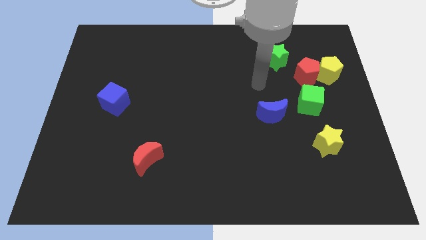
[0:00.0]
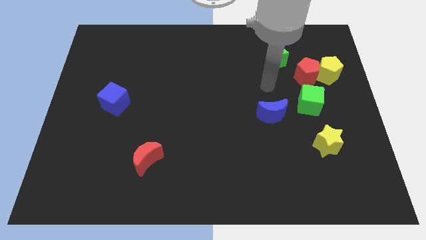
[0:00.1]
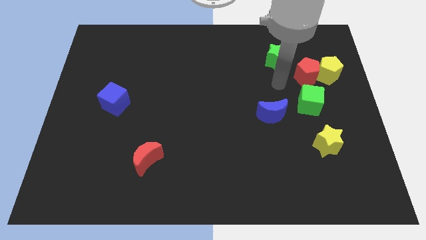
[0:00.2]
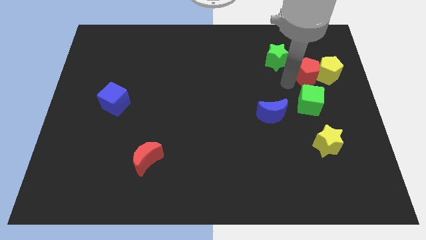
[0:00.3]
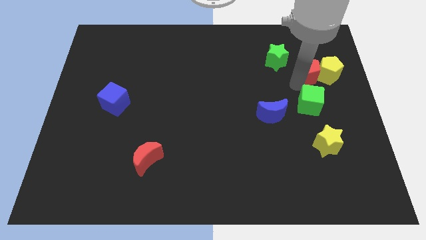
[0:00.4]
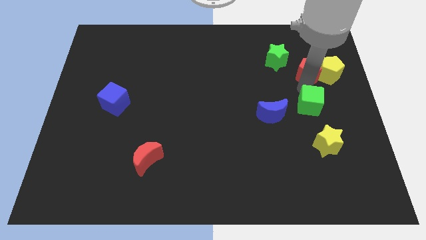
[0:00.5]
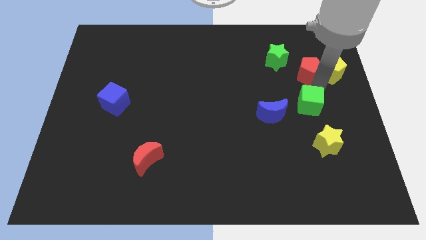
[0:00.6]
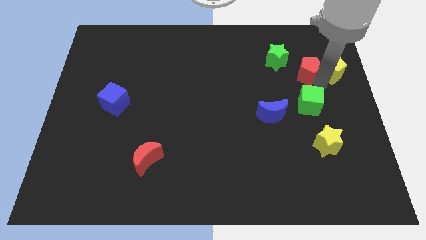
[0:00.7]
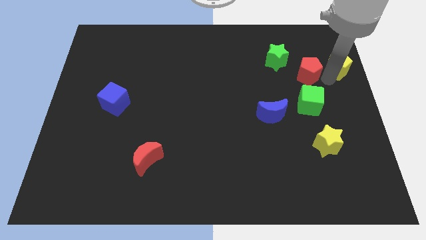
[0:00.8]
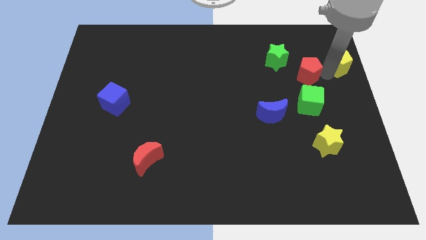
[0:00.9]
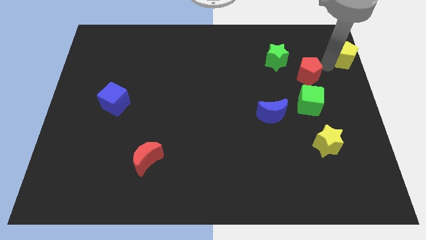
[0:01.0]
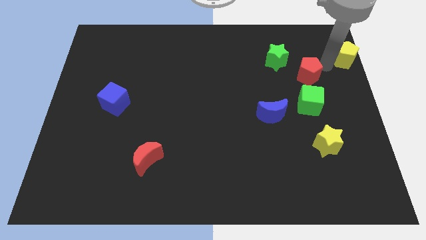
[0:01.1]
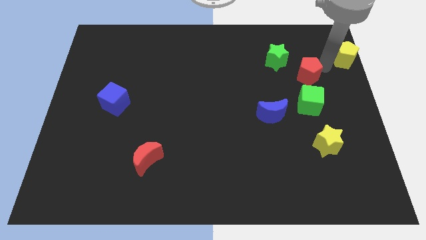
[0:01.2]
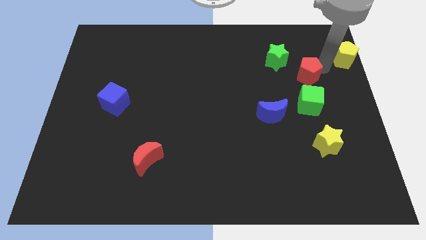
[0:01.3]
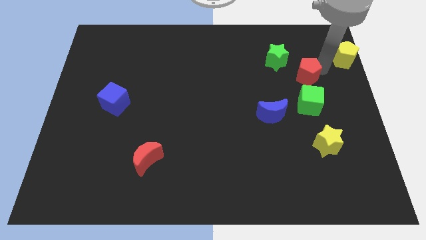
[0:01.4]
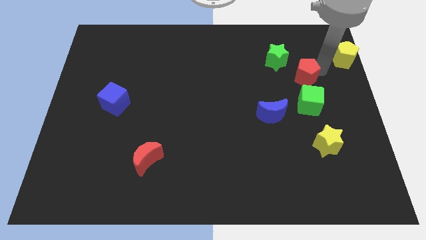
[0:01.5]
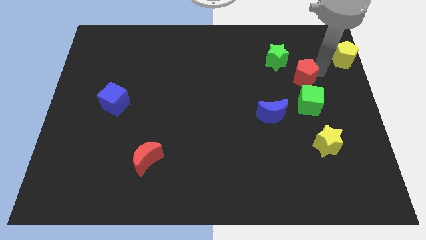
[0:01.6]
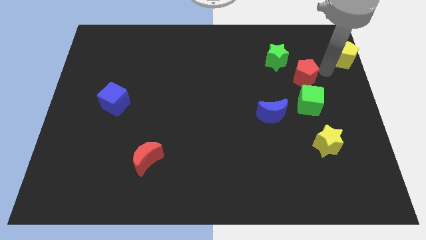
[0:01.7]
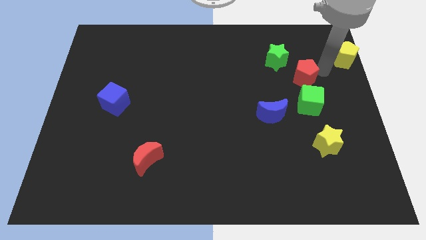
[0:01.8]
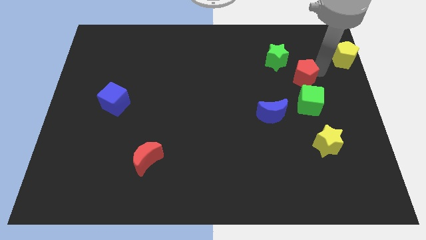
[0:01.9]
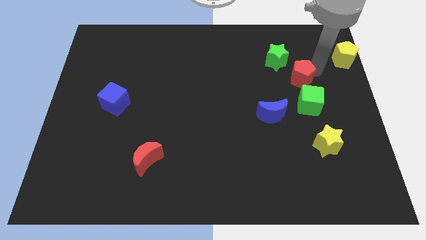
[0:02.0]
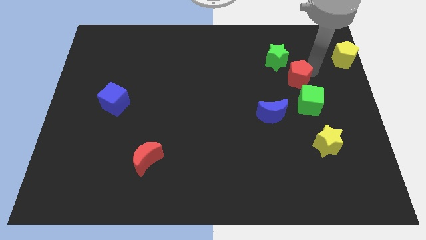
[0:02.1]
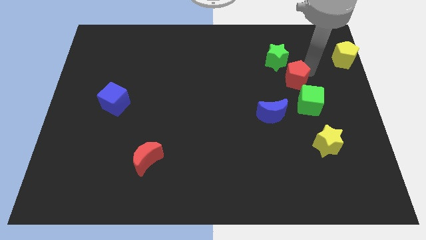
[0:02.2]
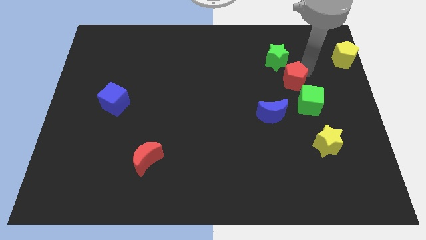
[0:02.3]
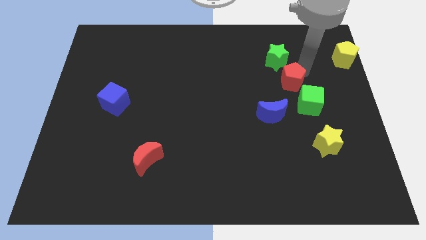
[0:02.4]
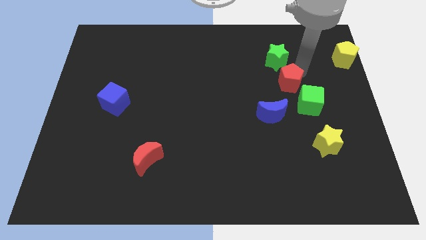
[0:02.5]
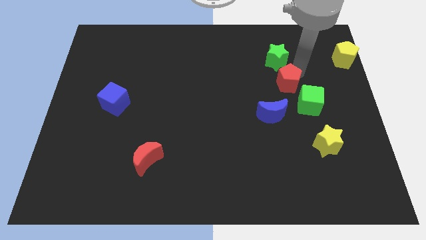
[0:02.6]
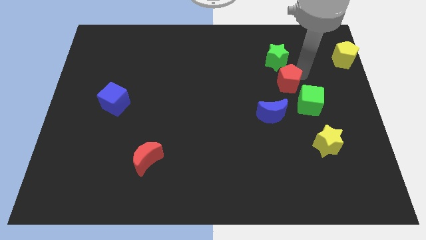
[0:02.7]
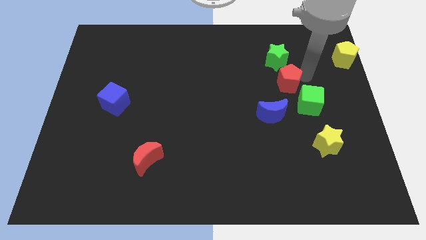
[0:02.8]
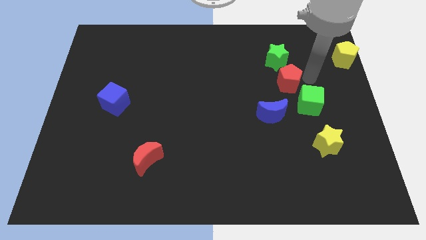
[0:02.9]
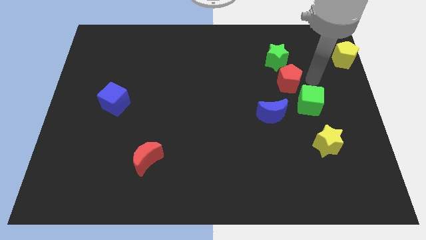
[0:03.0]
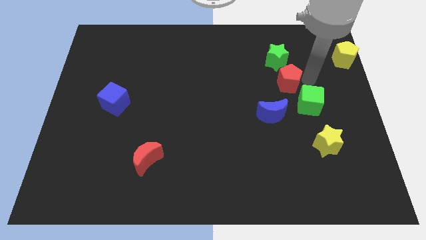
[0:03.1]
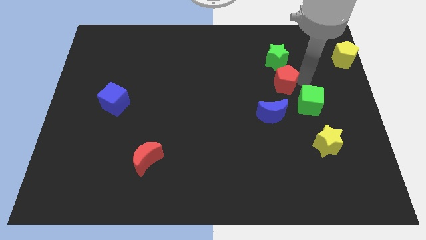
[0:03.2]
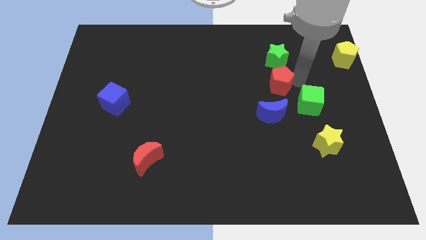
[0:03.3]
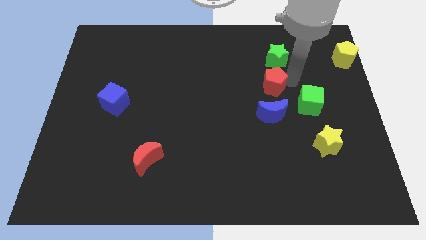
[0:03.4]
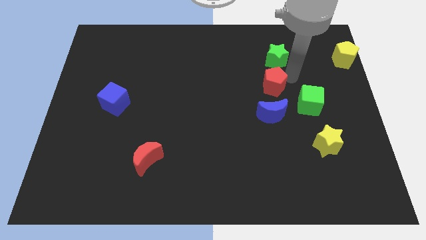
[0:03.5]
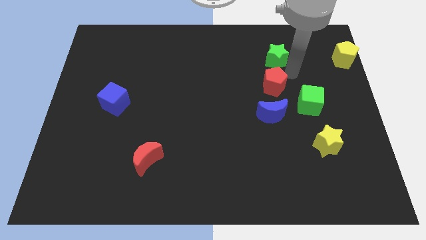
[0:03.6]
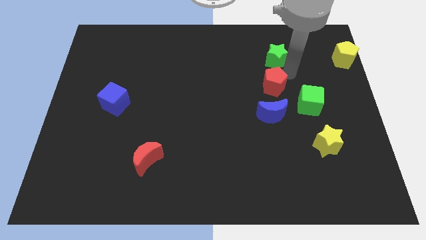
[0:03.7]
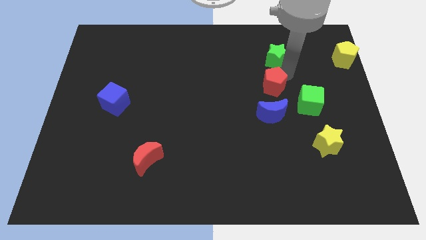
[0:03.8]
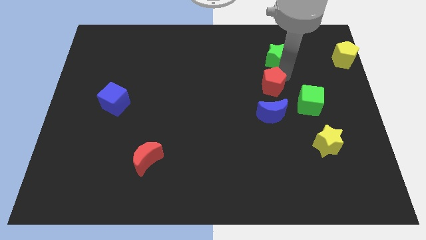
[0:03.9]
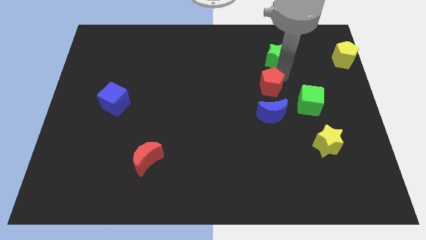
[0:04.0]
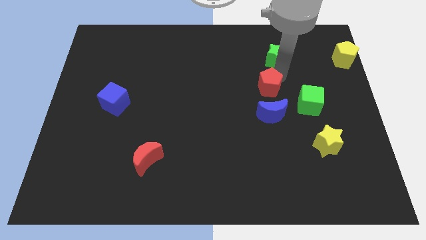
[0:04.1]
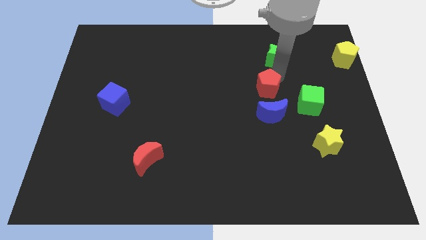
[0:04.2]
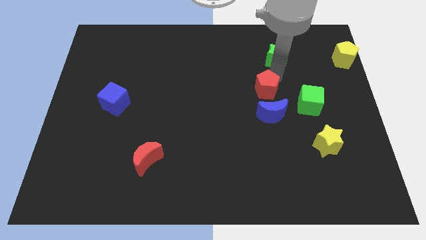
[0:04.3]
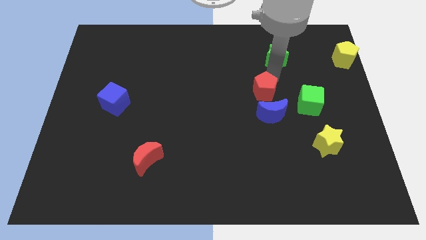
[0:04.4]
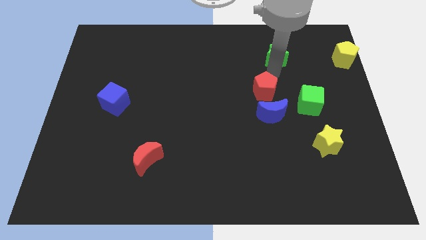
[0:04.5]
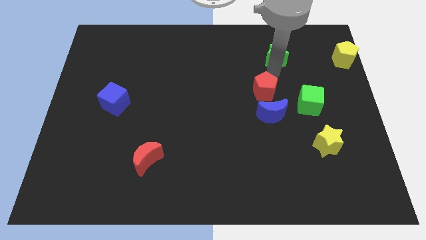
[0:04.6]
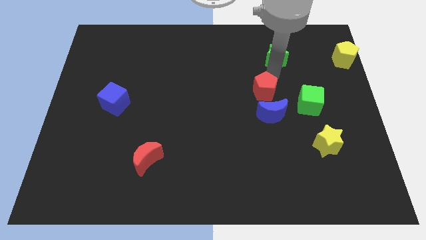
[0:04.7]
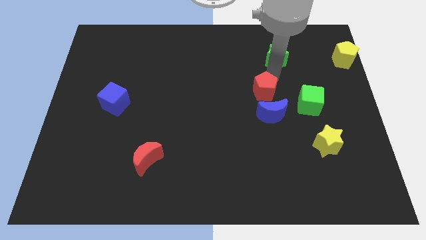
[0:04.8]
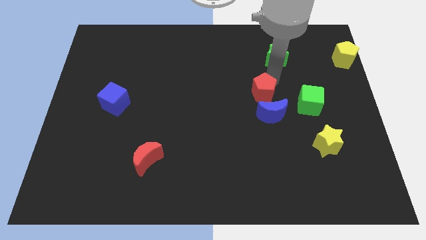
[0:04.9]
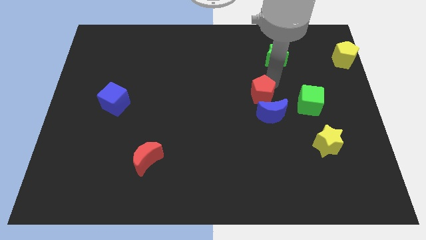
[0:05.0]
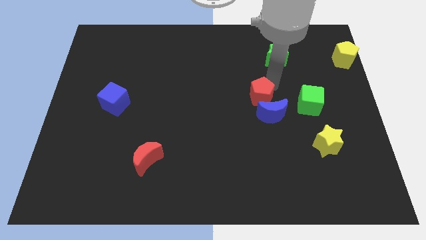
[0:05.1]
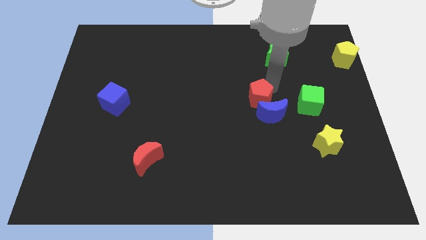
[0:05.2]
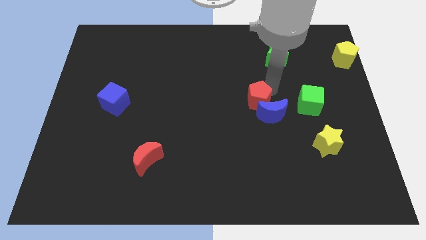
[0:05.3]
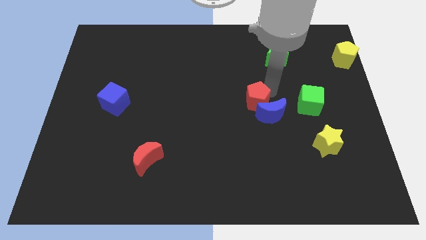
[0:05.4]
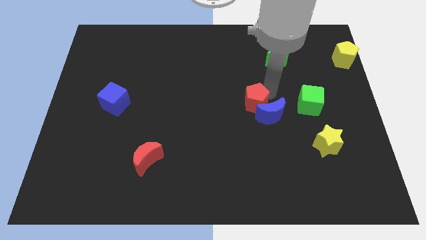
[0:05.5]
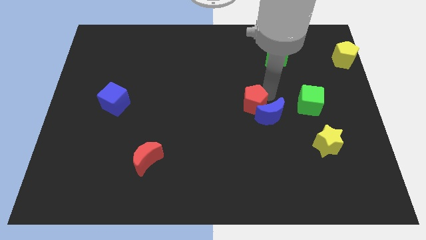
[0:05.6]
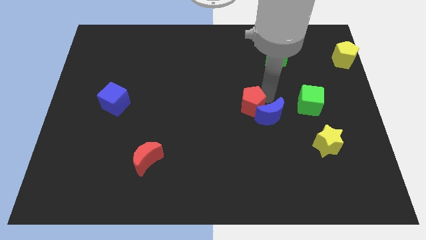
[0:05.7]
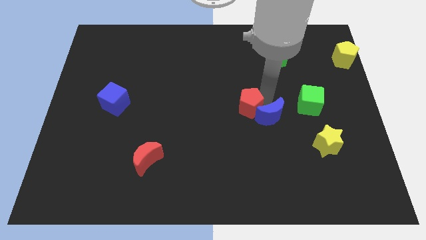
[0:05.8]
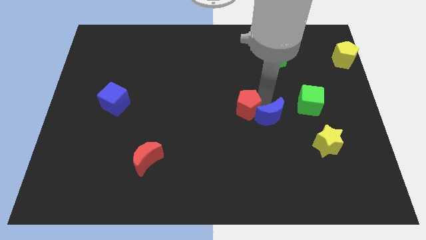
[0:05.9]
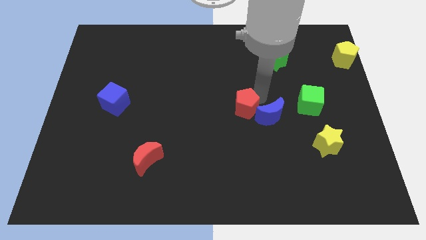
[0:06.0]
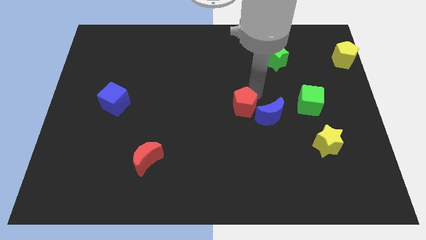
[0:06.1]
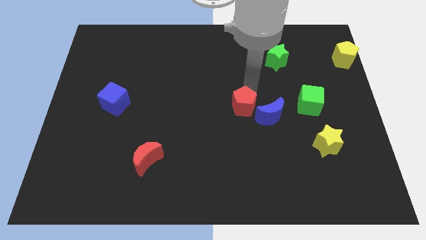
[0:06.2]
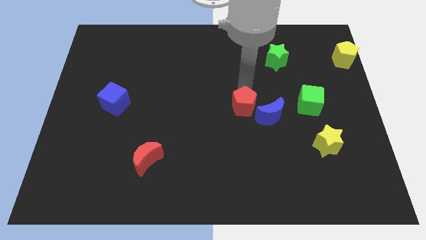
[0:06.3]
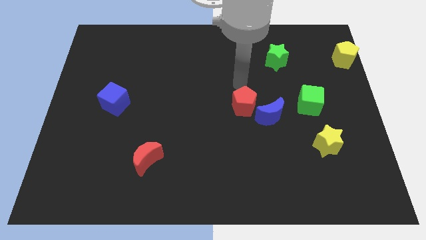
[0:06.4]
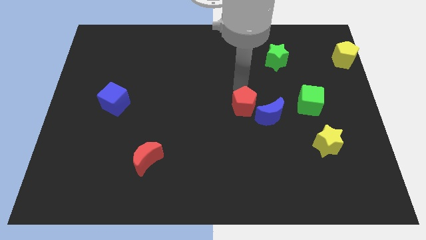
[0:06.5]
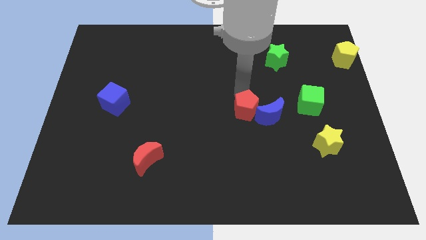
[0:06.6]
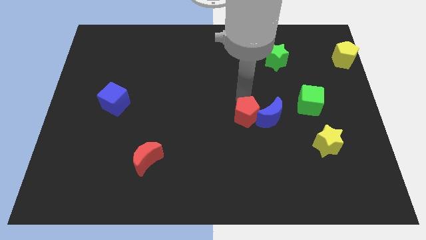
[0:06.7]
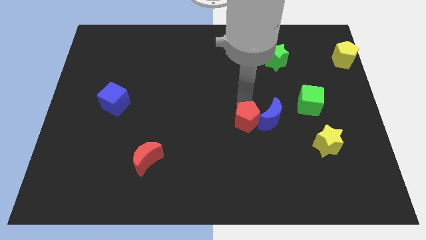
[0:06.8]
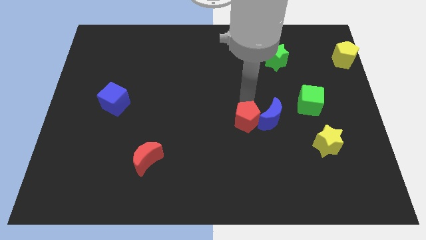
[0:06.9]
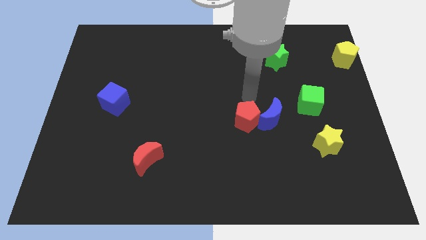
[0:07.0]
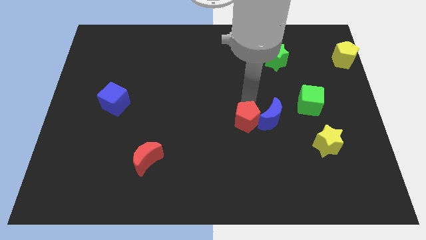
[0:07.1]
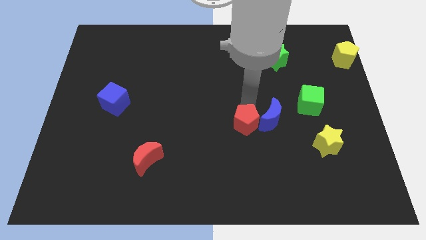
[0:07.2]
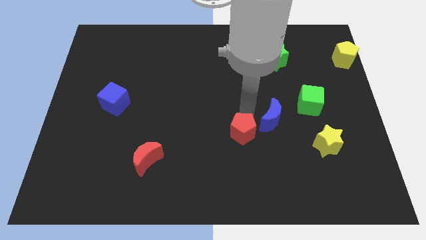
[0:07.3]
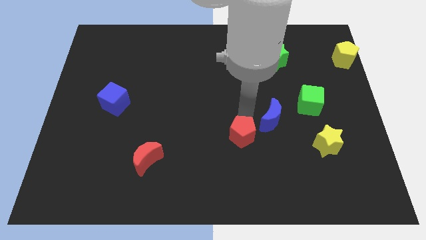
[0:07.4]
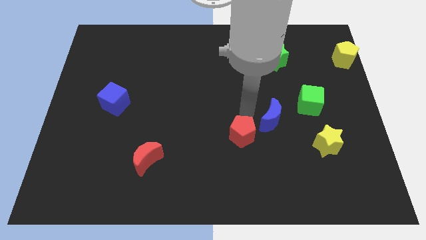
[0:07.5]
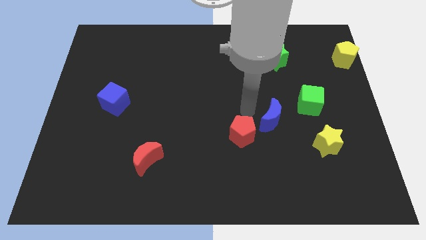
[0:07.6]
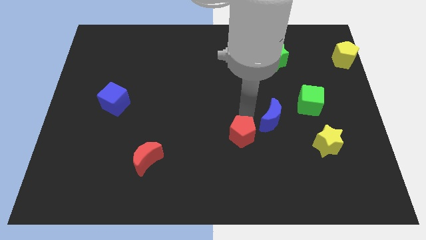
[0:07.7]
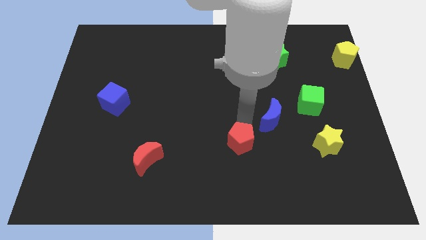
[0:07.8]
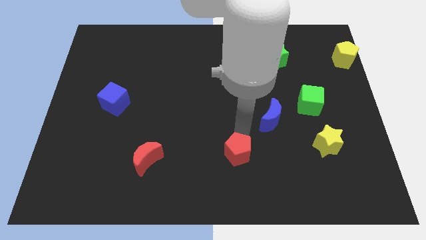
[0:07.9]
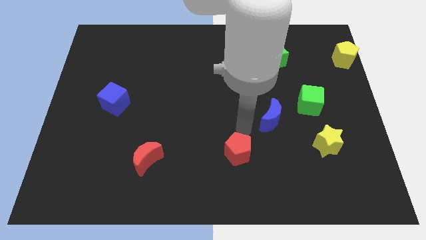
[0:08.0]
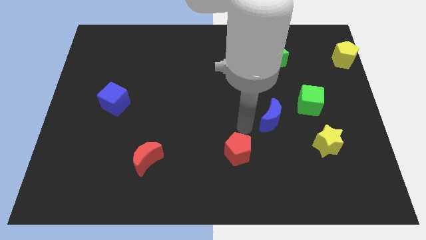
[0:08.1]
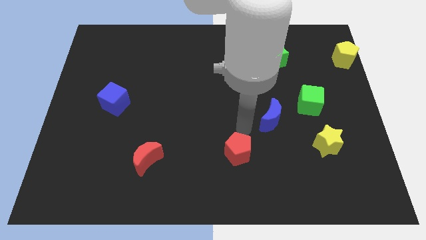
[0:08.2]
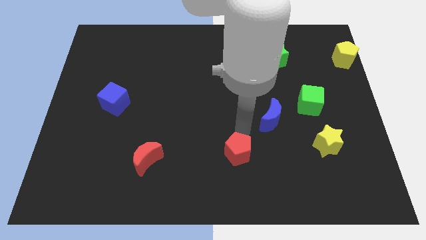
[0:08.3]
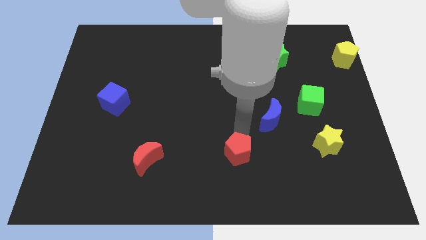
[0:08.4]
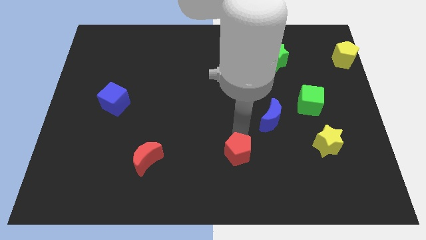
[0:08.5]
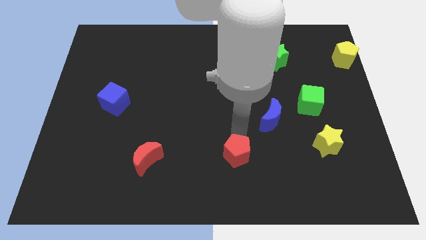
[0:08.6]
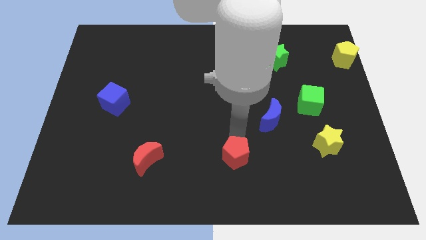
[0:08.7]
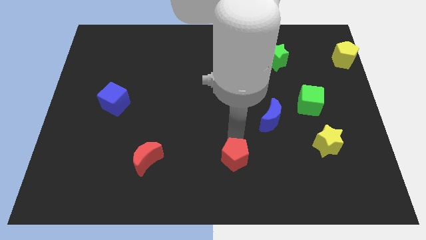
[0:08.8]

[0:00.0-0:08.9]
put the red pentagon to the bottom side
